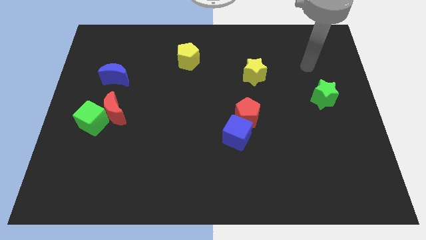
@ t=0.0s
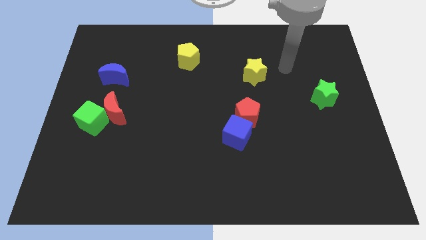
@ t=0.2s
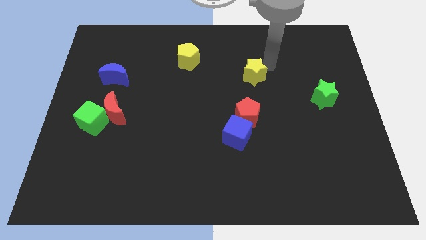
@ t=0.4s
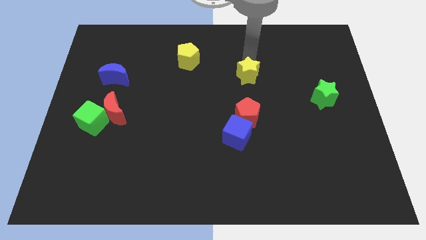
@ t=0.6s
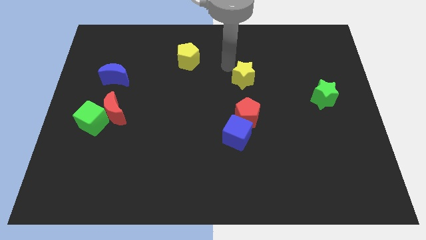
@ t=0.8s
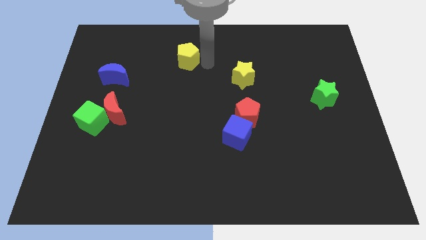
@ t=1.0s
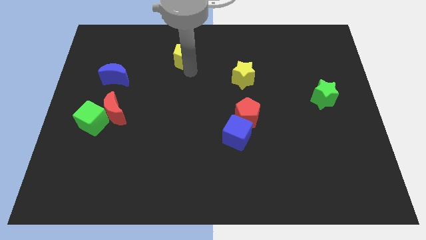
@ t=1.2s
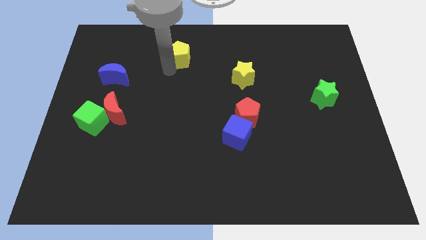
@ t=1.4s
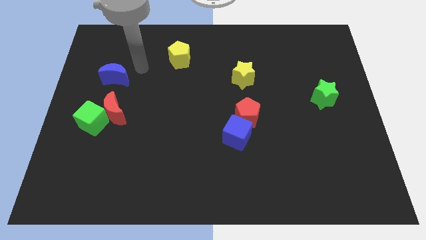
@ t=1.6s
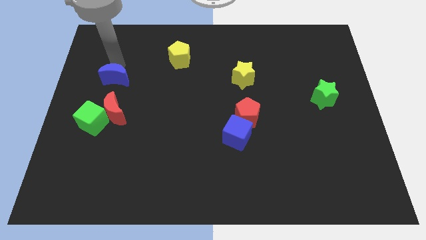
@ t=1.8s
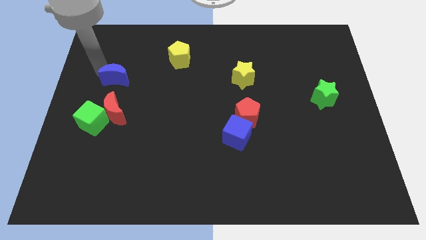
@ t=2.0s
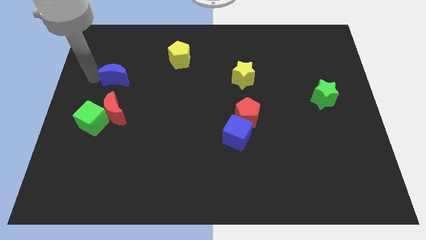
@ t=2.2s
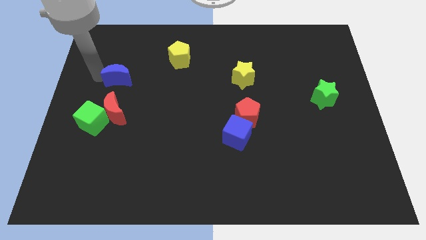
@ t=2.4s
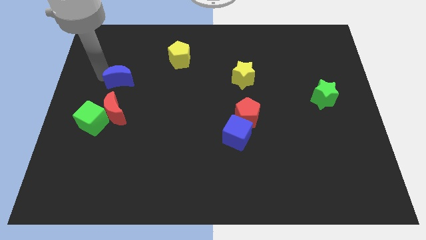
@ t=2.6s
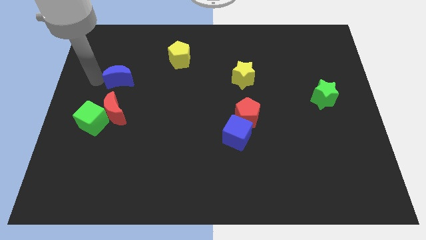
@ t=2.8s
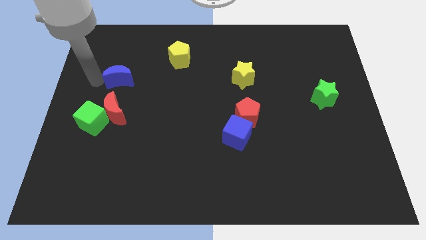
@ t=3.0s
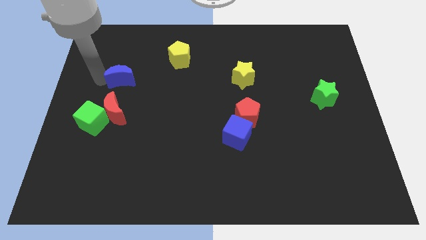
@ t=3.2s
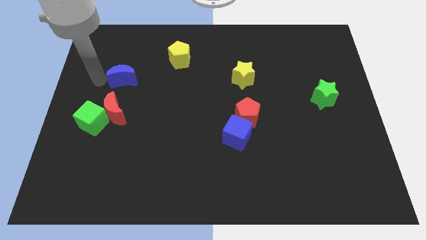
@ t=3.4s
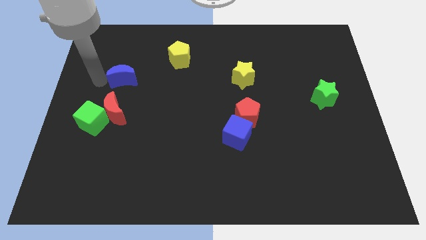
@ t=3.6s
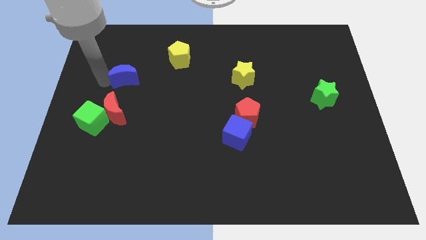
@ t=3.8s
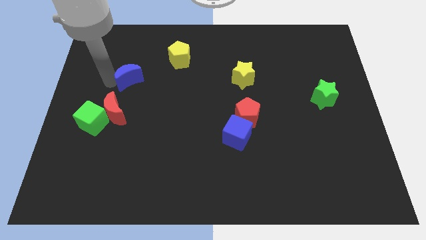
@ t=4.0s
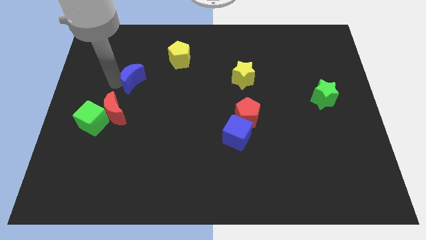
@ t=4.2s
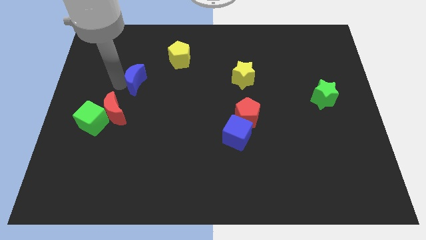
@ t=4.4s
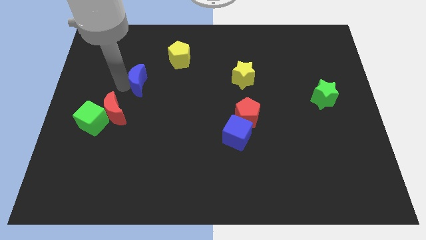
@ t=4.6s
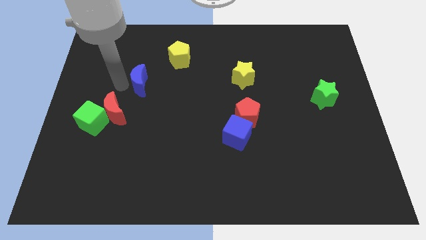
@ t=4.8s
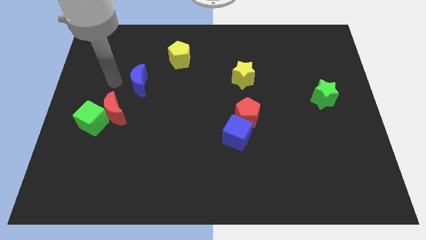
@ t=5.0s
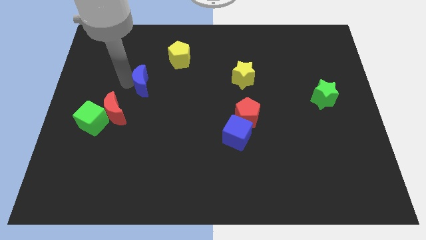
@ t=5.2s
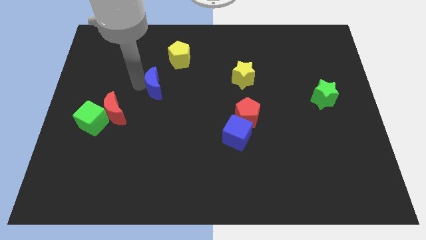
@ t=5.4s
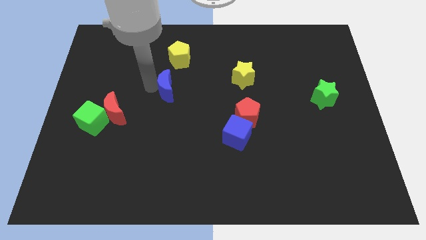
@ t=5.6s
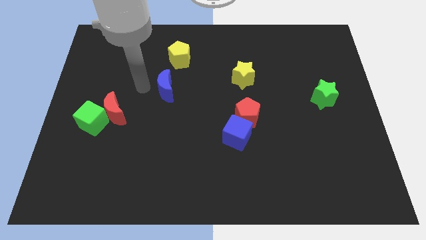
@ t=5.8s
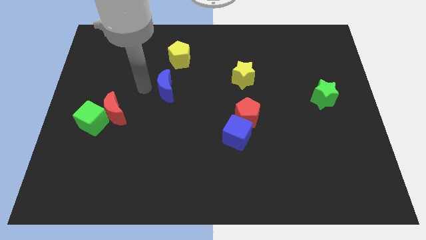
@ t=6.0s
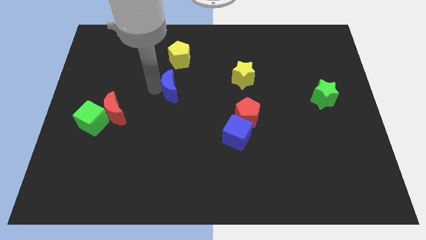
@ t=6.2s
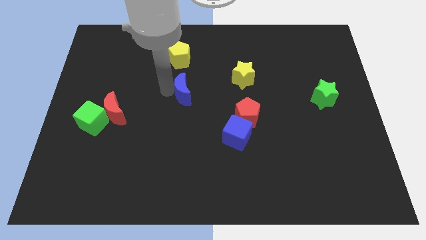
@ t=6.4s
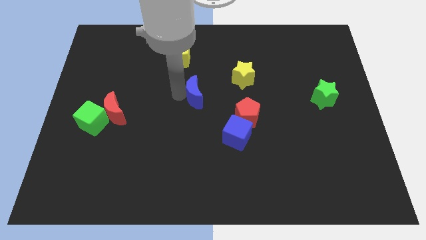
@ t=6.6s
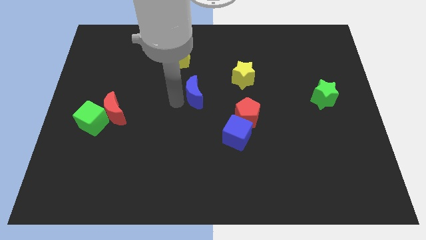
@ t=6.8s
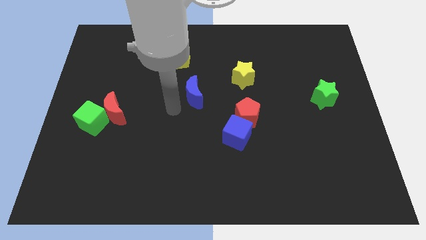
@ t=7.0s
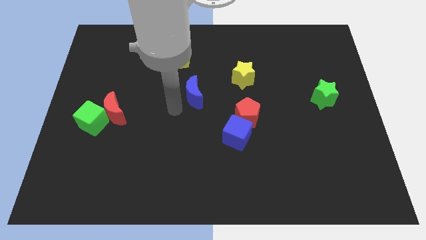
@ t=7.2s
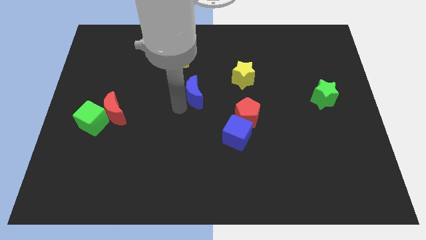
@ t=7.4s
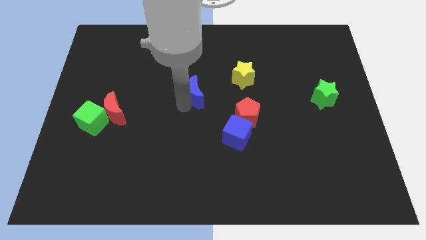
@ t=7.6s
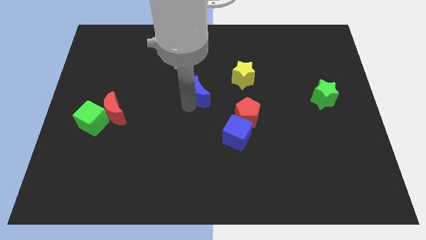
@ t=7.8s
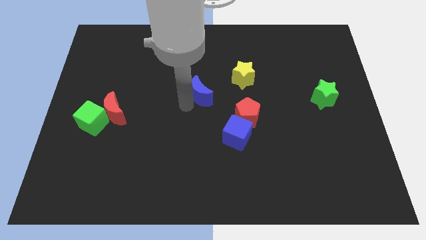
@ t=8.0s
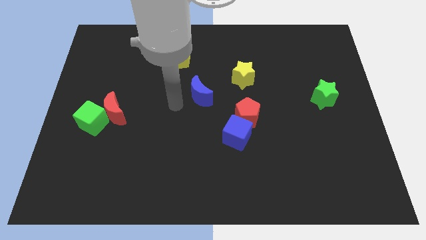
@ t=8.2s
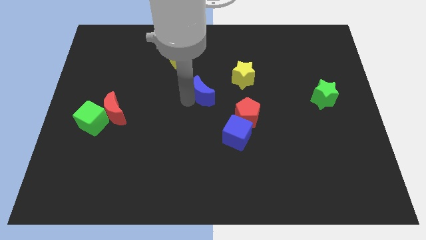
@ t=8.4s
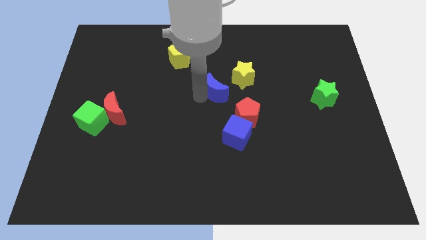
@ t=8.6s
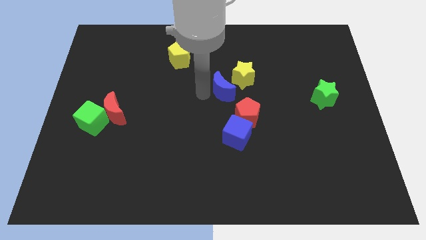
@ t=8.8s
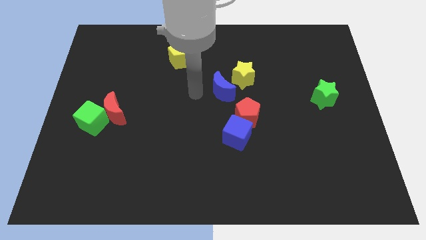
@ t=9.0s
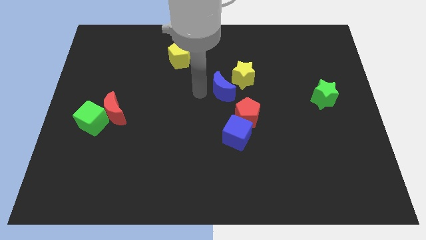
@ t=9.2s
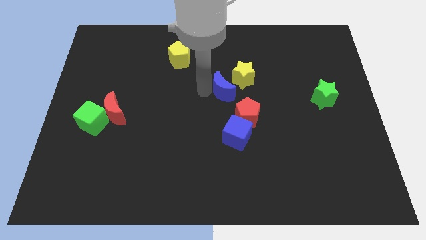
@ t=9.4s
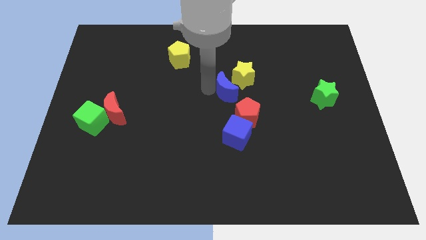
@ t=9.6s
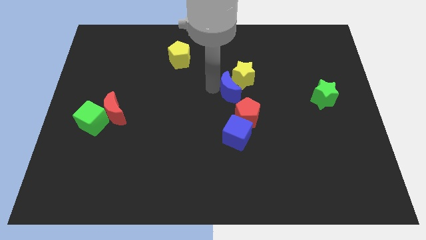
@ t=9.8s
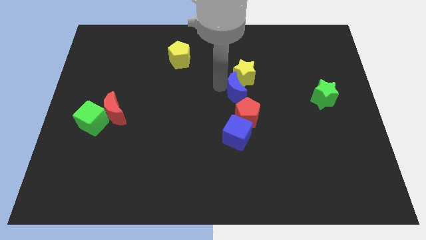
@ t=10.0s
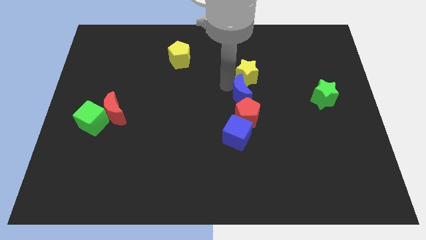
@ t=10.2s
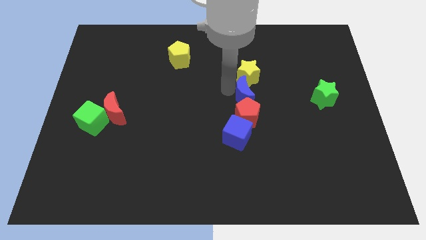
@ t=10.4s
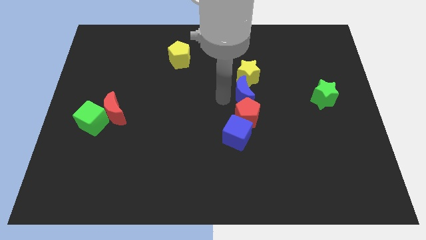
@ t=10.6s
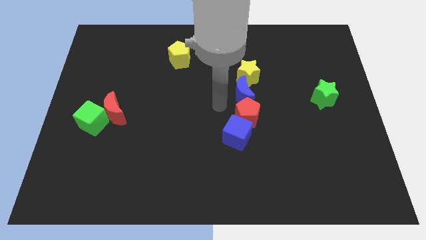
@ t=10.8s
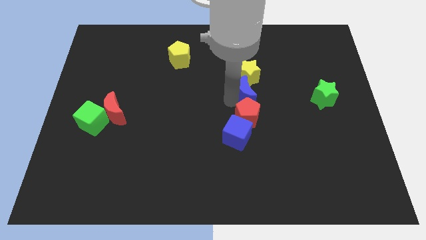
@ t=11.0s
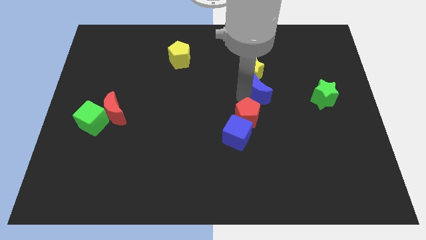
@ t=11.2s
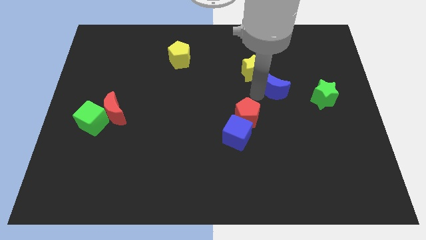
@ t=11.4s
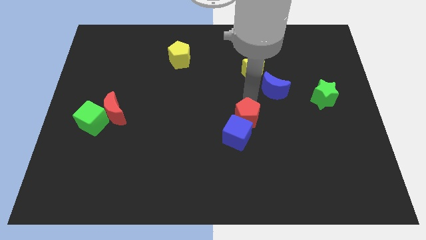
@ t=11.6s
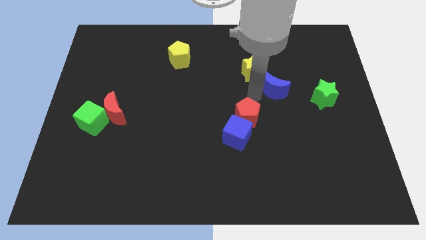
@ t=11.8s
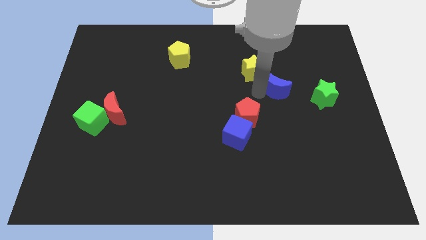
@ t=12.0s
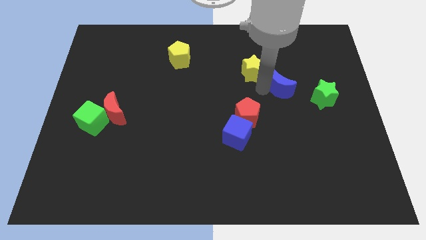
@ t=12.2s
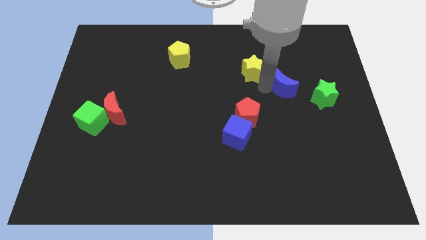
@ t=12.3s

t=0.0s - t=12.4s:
put the blue moon diagonally up and to the left of the green star
